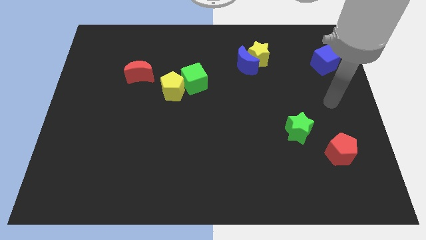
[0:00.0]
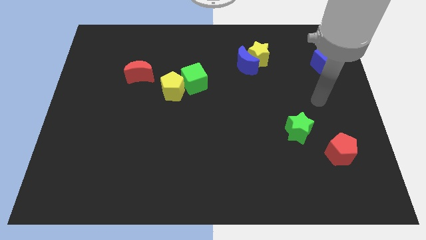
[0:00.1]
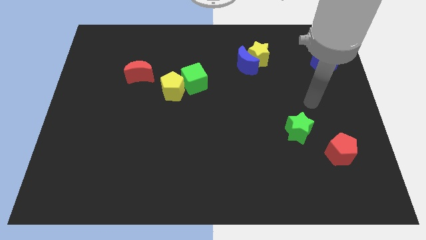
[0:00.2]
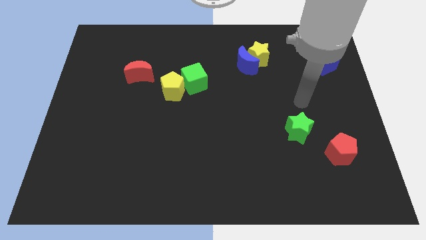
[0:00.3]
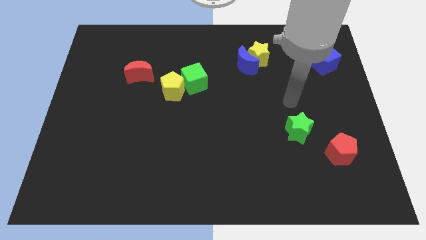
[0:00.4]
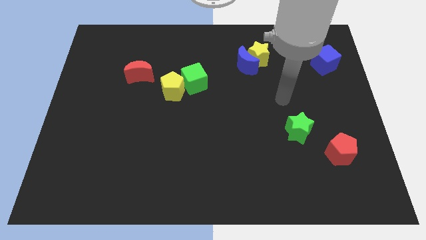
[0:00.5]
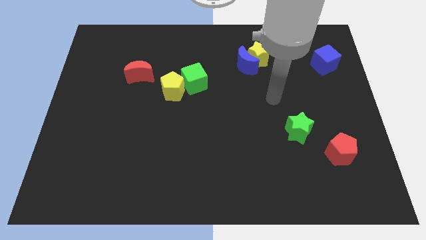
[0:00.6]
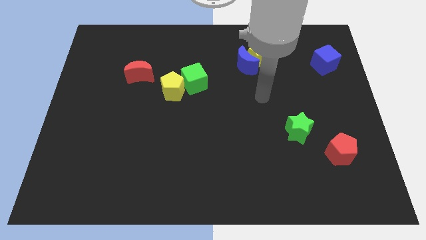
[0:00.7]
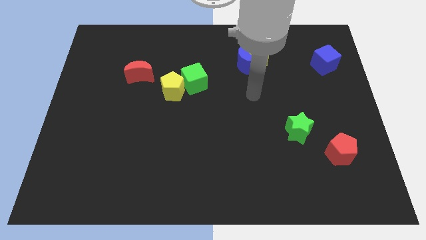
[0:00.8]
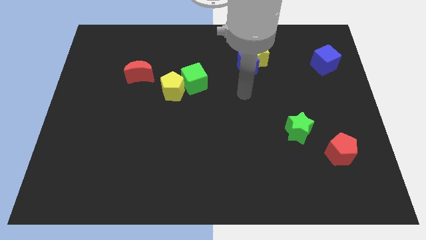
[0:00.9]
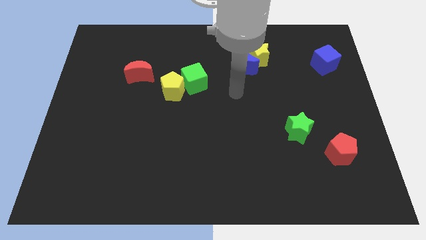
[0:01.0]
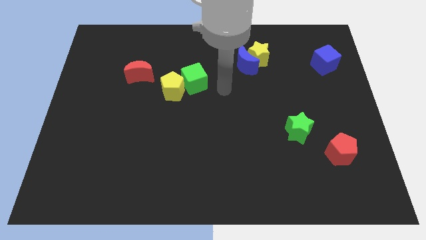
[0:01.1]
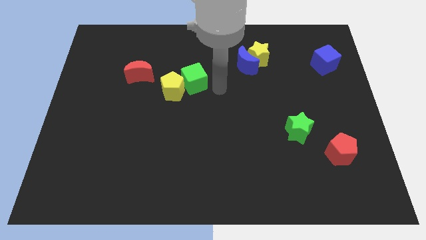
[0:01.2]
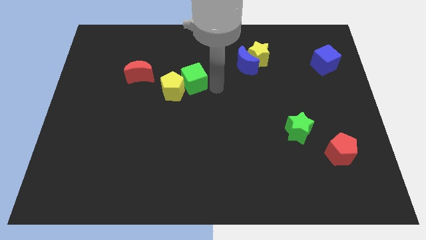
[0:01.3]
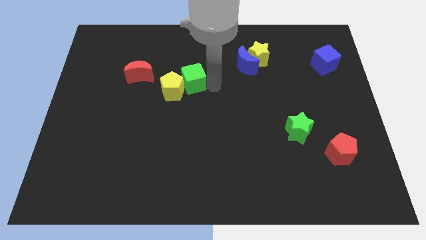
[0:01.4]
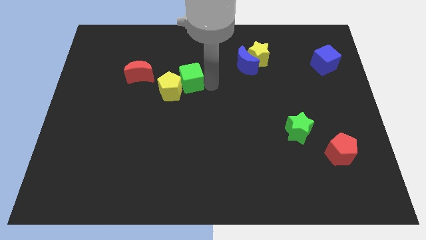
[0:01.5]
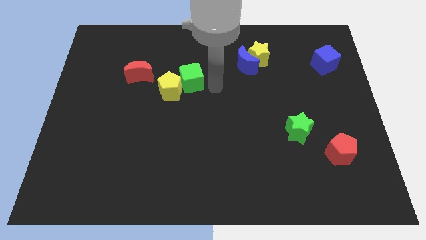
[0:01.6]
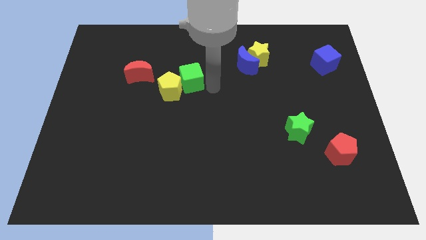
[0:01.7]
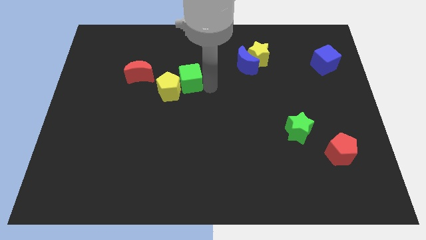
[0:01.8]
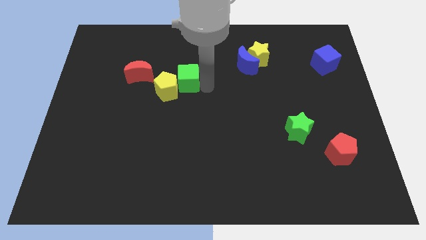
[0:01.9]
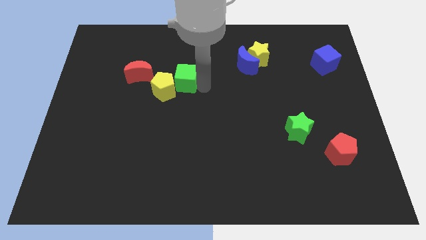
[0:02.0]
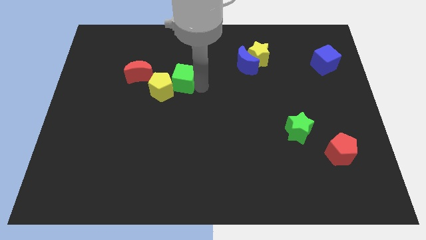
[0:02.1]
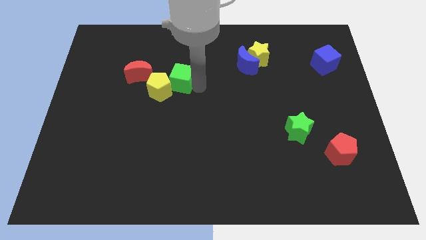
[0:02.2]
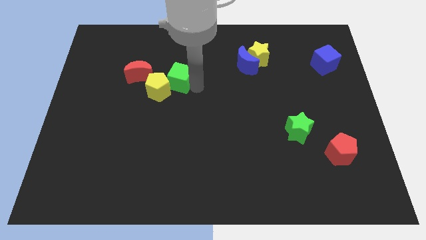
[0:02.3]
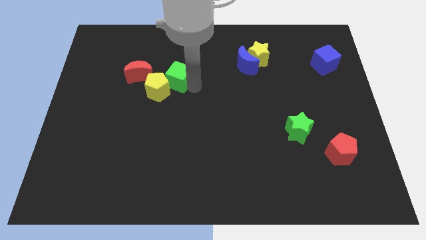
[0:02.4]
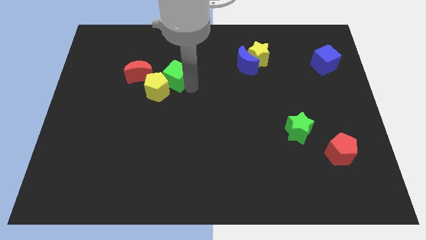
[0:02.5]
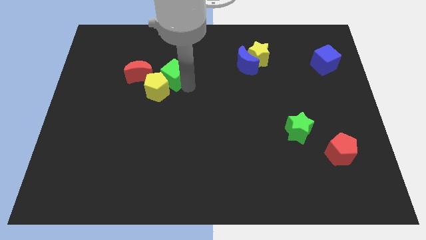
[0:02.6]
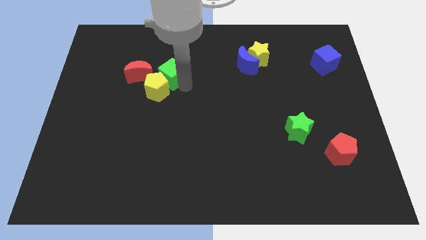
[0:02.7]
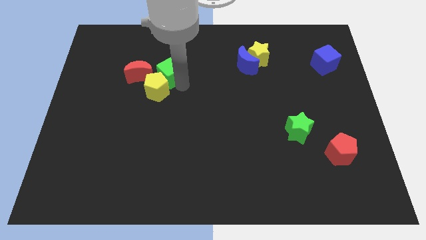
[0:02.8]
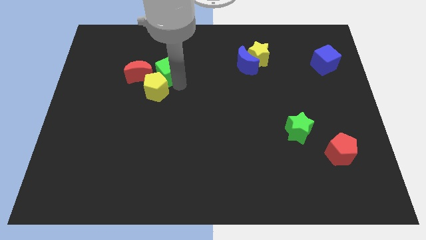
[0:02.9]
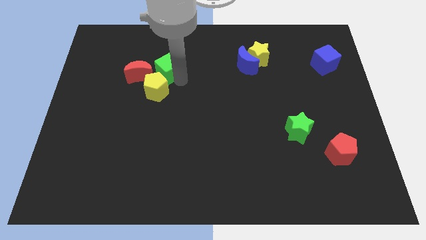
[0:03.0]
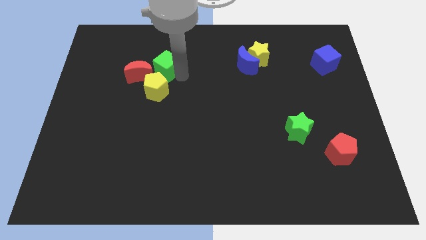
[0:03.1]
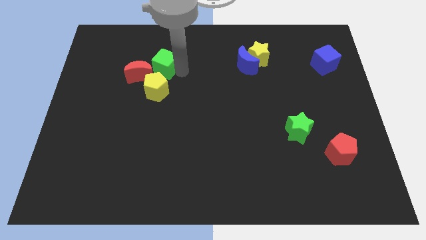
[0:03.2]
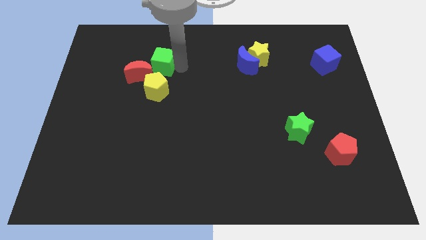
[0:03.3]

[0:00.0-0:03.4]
slide the green cube somewhat to the left

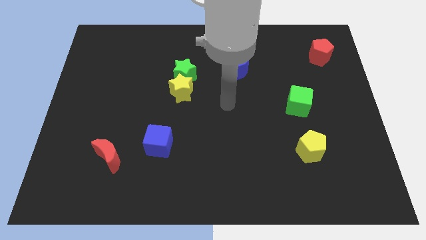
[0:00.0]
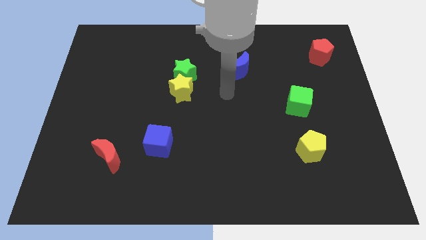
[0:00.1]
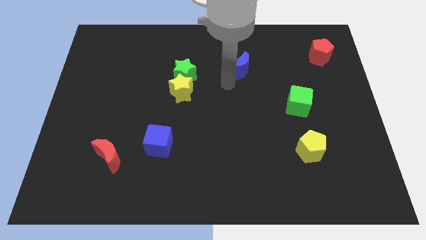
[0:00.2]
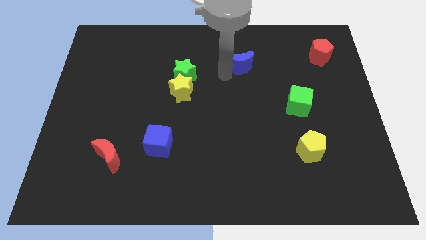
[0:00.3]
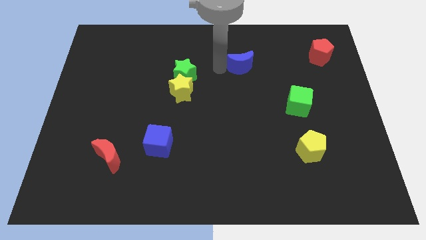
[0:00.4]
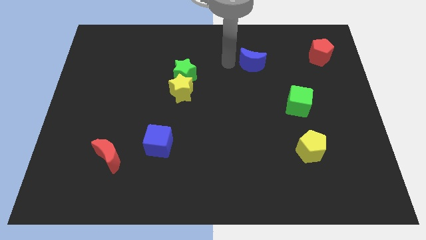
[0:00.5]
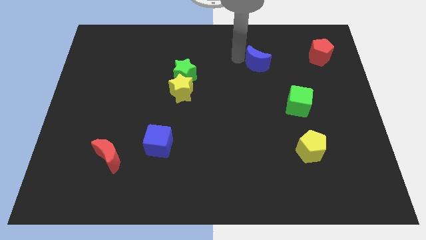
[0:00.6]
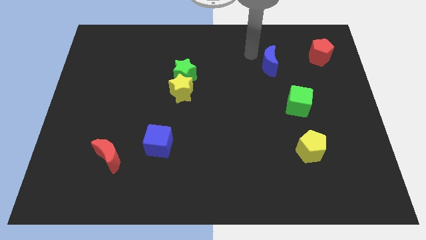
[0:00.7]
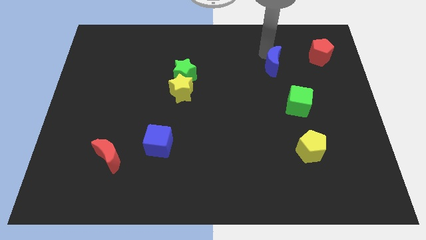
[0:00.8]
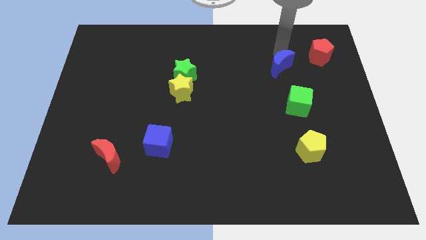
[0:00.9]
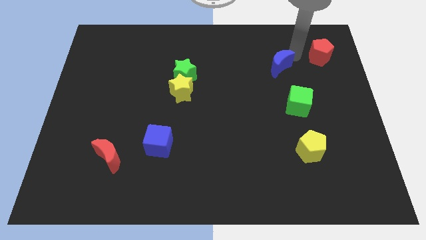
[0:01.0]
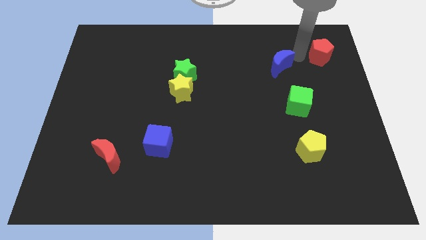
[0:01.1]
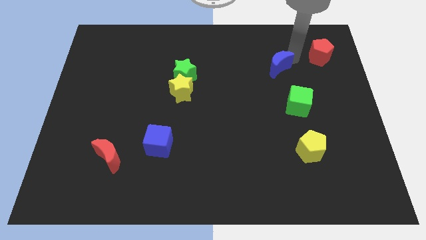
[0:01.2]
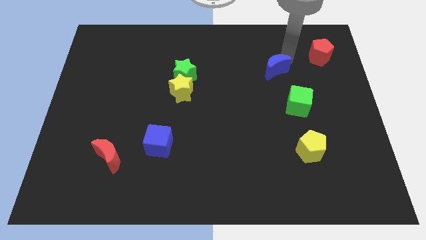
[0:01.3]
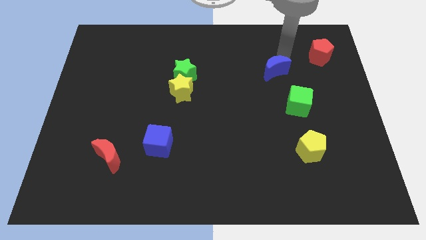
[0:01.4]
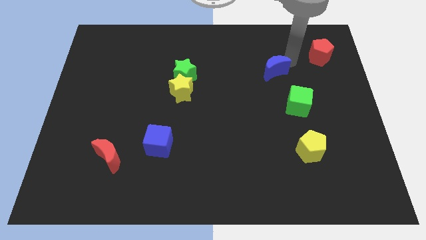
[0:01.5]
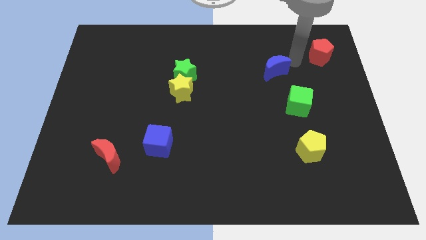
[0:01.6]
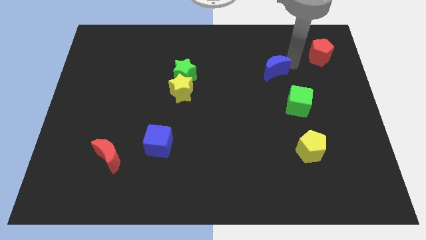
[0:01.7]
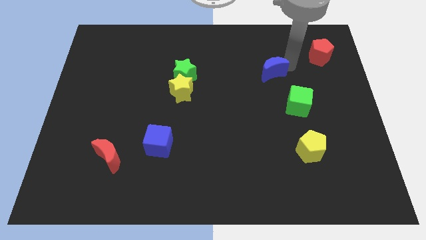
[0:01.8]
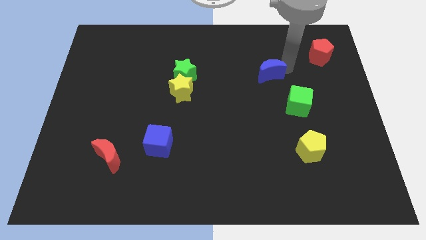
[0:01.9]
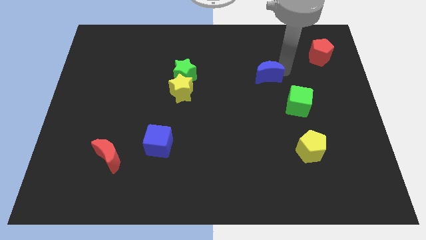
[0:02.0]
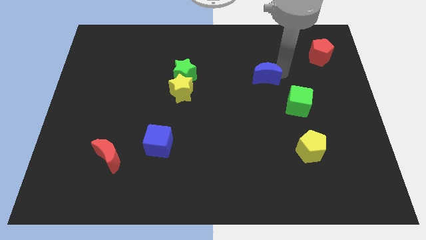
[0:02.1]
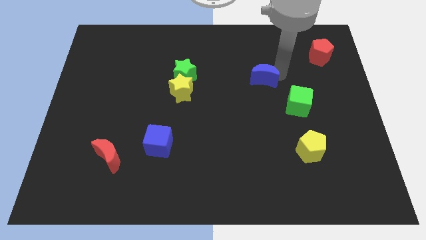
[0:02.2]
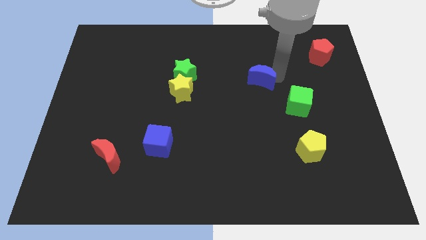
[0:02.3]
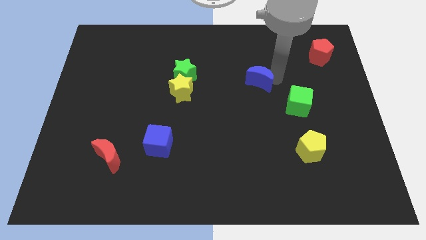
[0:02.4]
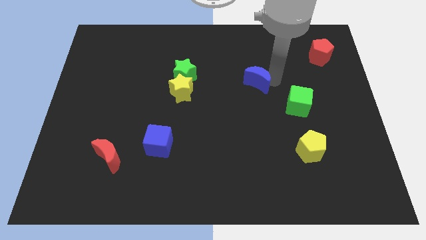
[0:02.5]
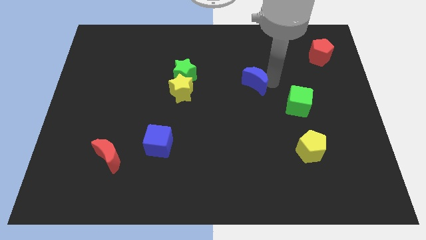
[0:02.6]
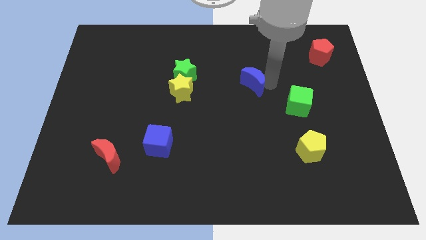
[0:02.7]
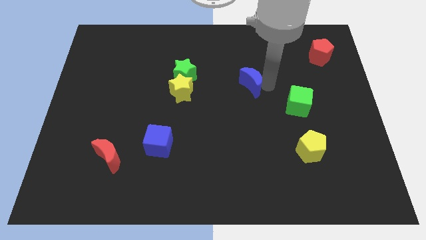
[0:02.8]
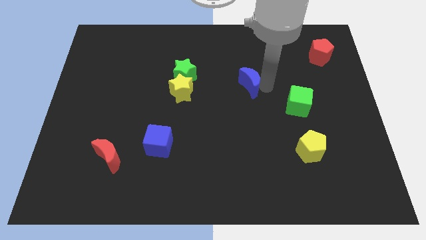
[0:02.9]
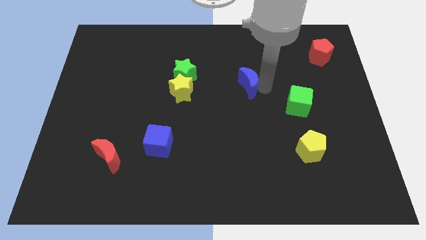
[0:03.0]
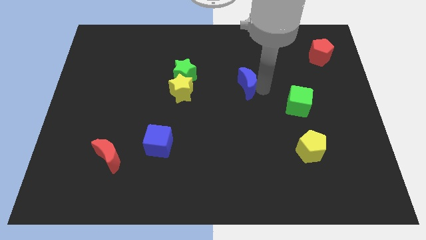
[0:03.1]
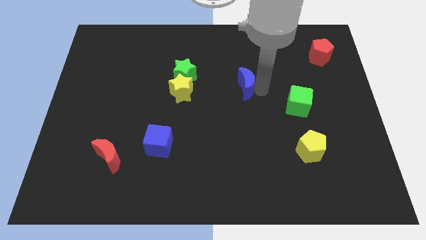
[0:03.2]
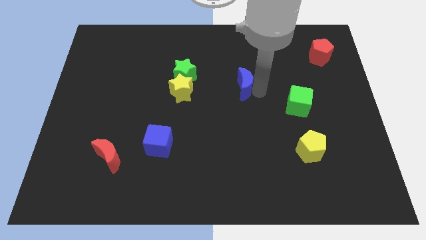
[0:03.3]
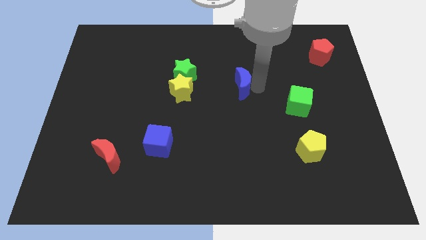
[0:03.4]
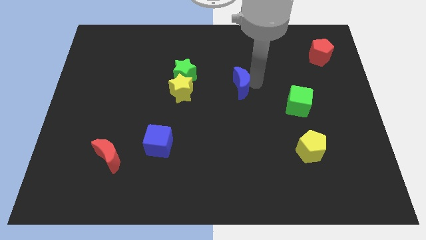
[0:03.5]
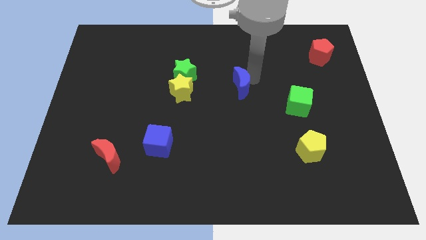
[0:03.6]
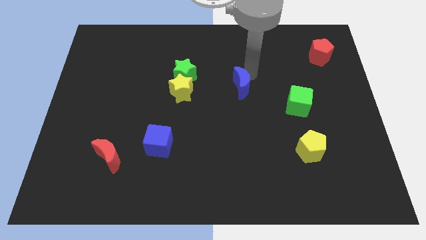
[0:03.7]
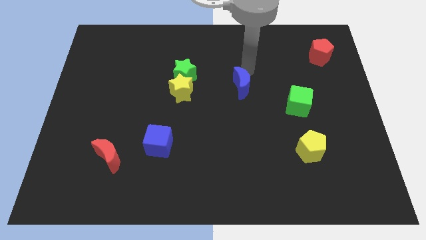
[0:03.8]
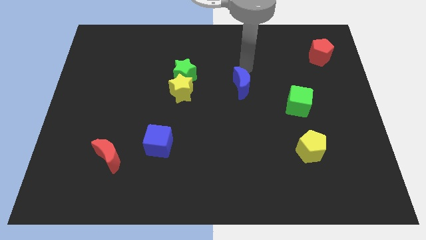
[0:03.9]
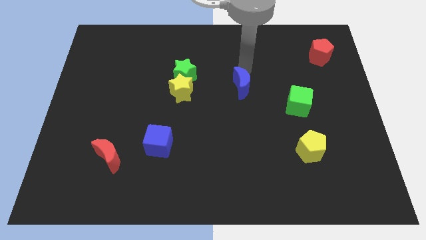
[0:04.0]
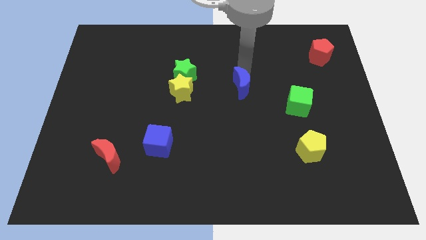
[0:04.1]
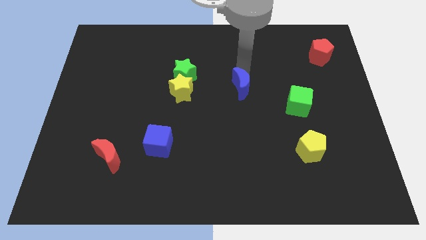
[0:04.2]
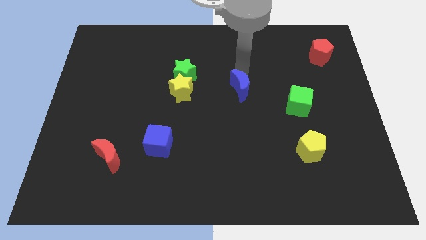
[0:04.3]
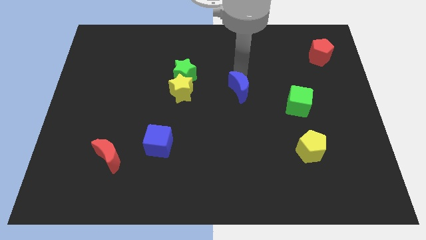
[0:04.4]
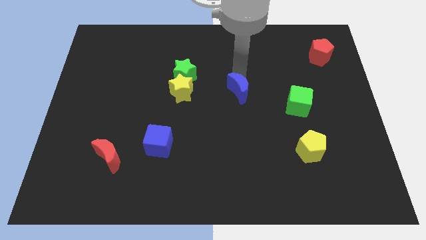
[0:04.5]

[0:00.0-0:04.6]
slide the blue moon a little bit down
